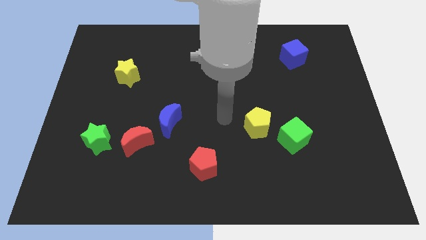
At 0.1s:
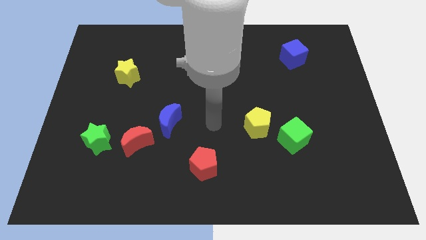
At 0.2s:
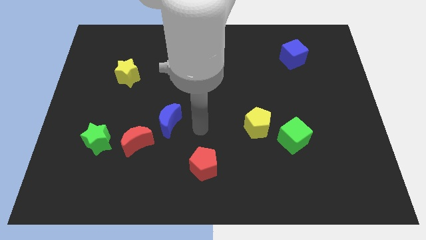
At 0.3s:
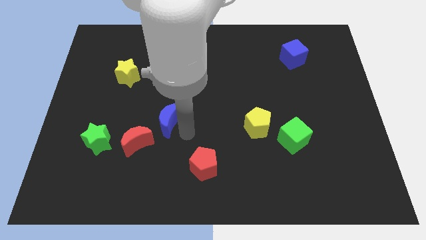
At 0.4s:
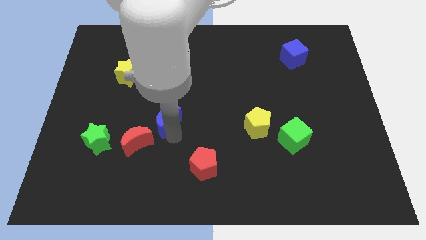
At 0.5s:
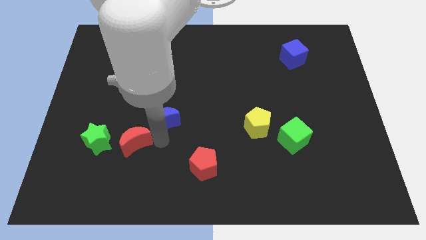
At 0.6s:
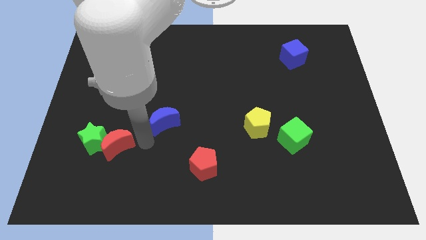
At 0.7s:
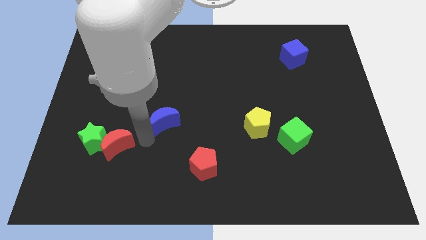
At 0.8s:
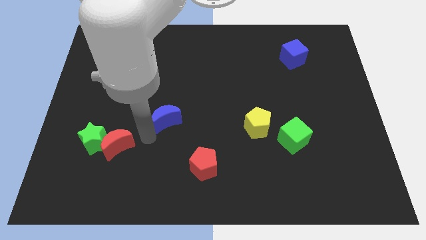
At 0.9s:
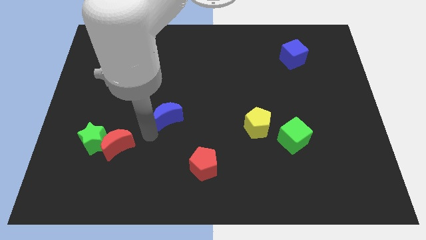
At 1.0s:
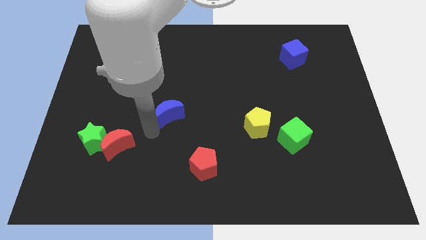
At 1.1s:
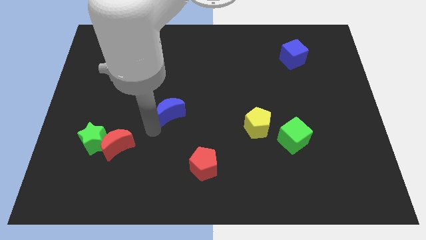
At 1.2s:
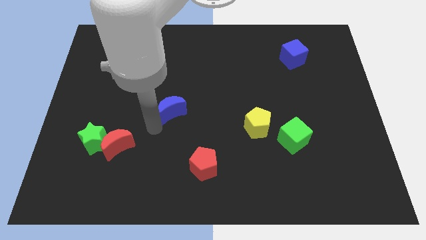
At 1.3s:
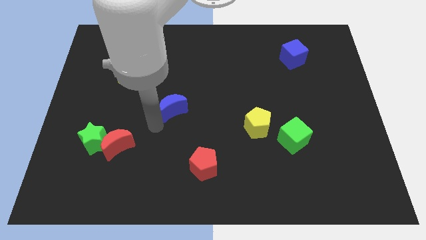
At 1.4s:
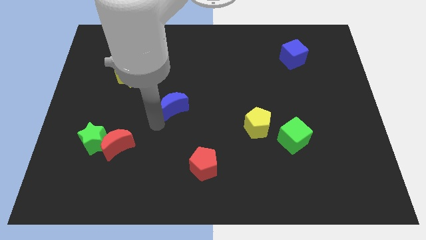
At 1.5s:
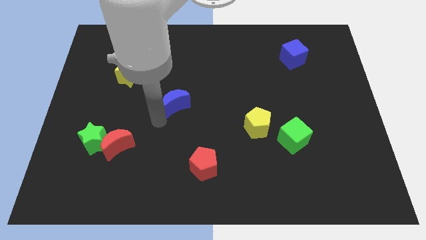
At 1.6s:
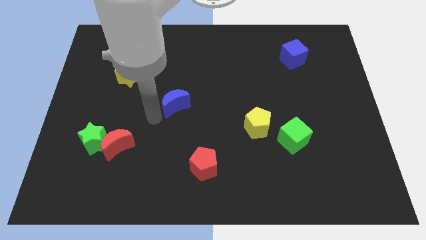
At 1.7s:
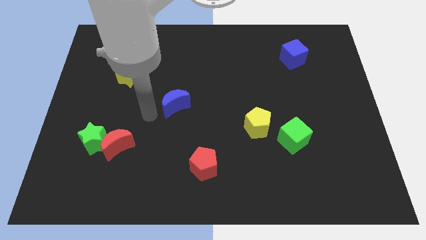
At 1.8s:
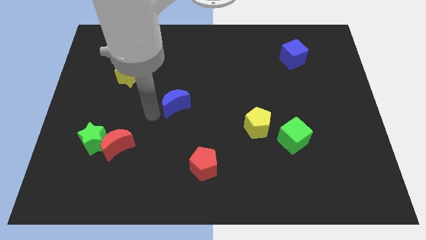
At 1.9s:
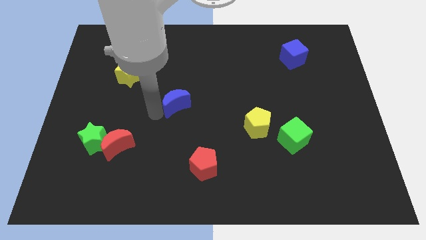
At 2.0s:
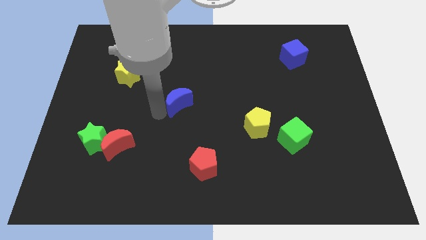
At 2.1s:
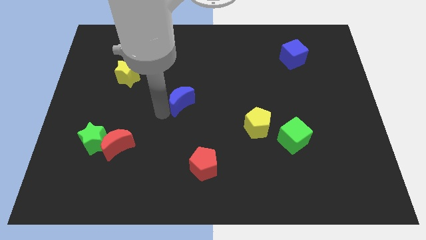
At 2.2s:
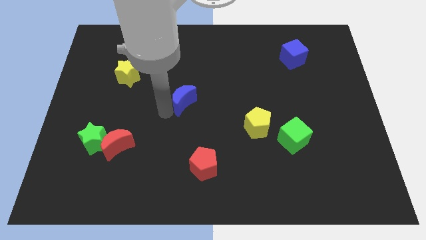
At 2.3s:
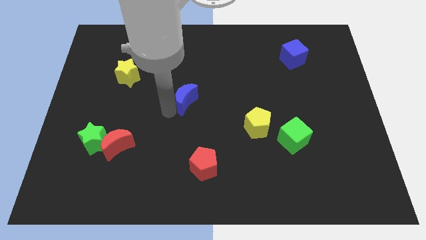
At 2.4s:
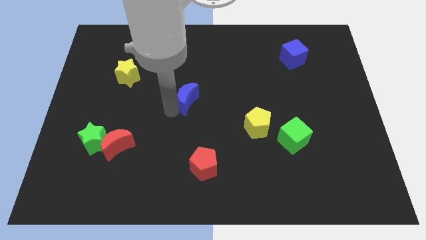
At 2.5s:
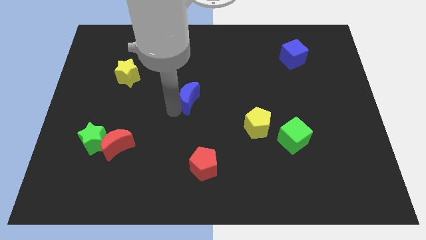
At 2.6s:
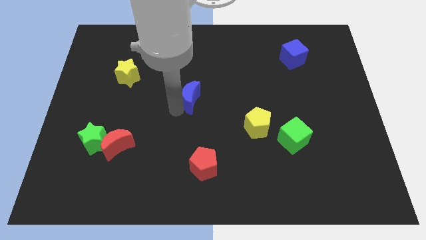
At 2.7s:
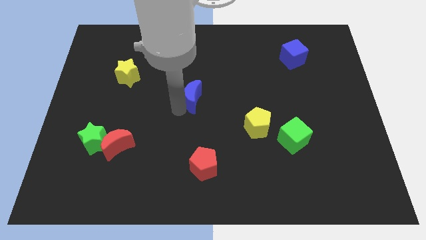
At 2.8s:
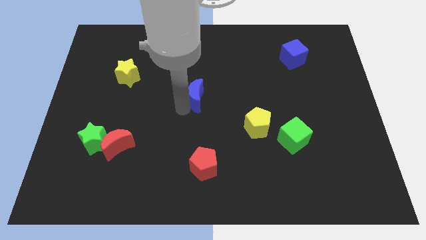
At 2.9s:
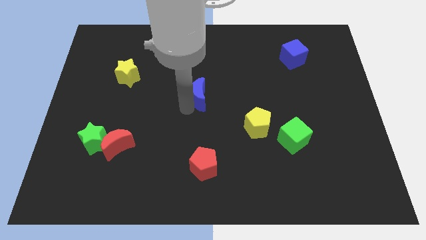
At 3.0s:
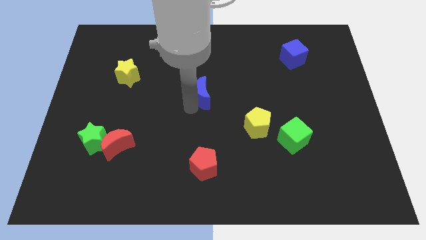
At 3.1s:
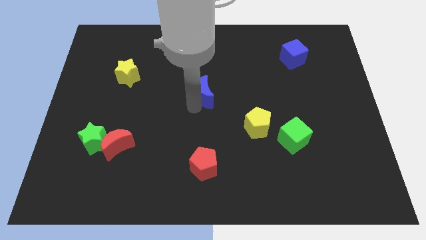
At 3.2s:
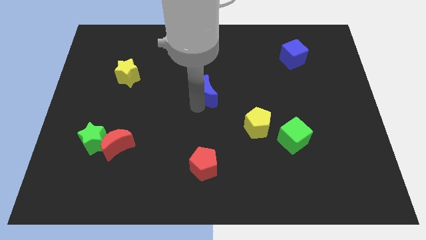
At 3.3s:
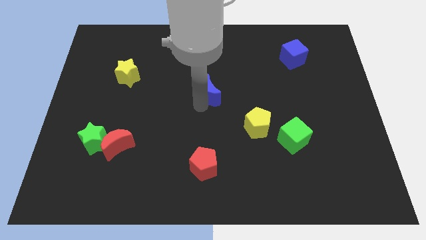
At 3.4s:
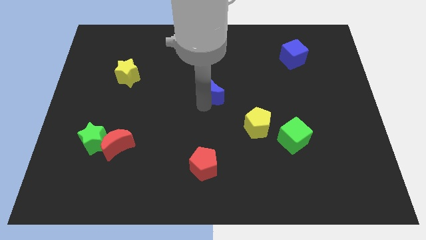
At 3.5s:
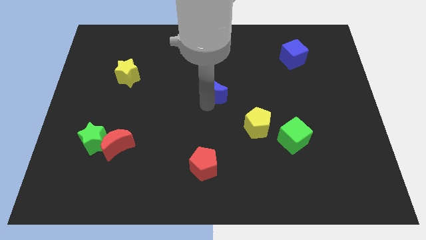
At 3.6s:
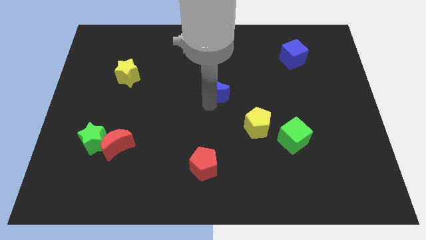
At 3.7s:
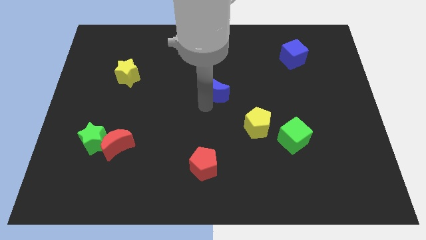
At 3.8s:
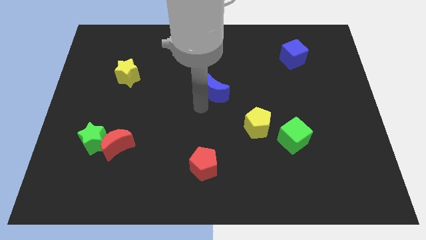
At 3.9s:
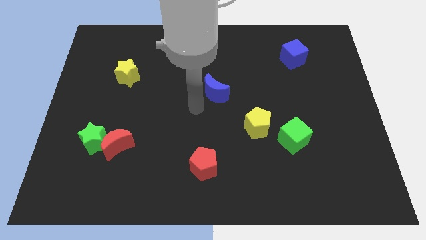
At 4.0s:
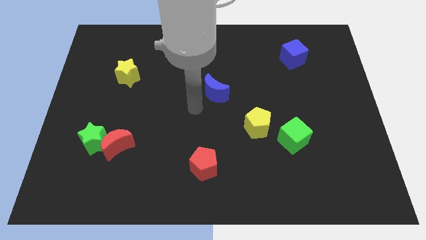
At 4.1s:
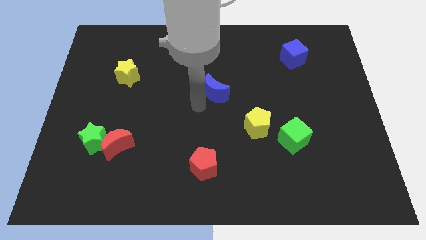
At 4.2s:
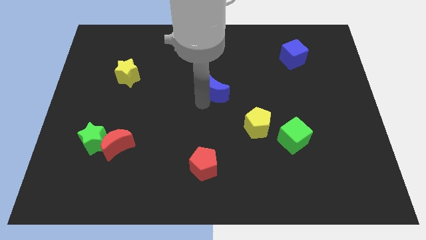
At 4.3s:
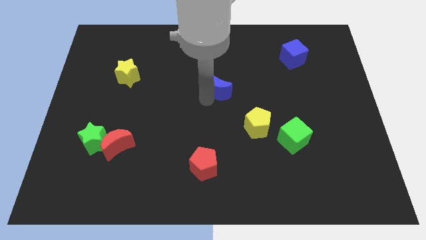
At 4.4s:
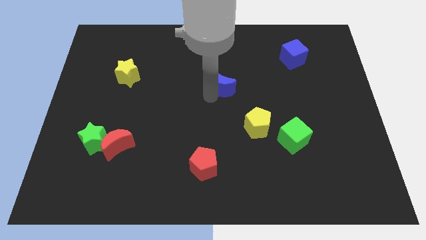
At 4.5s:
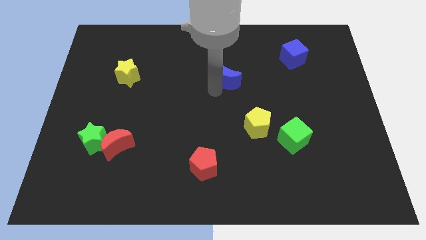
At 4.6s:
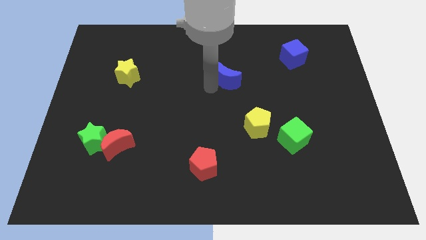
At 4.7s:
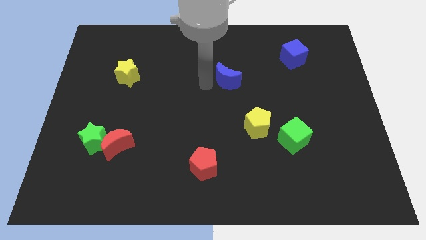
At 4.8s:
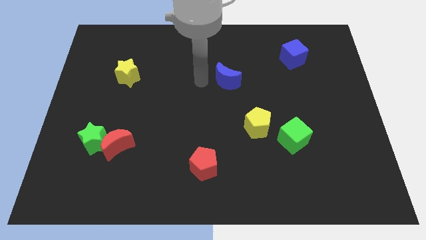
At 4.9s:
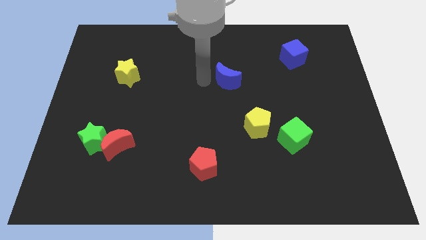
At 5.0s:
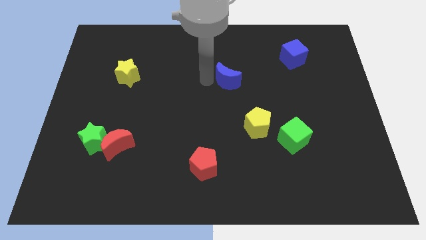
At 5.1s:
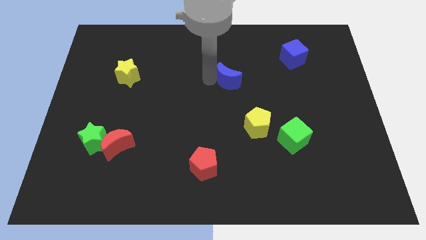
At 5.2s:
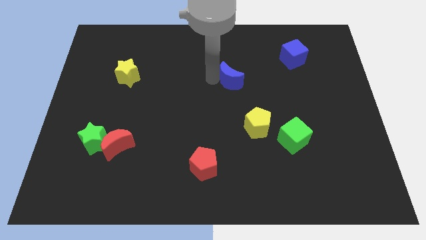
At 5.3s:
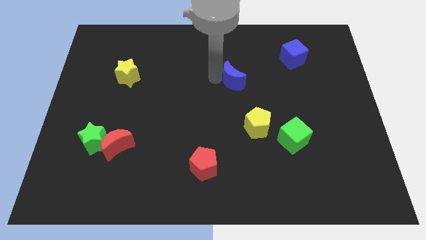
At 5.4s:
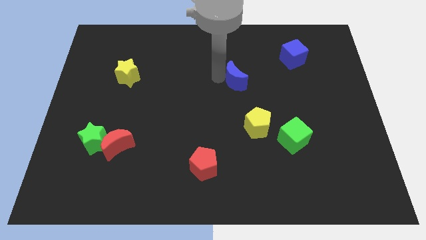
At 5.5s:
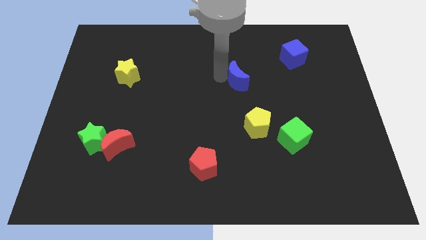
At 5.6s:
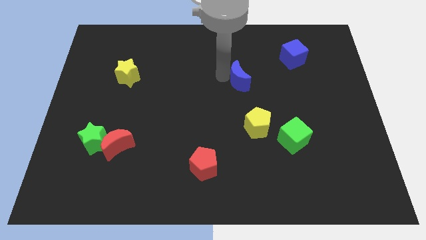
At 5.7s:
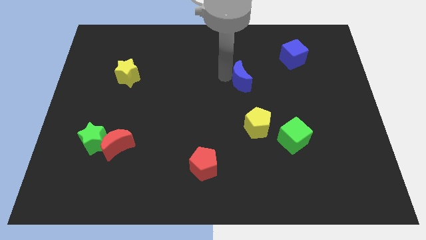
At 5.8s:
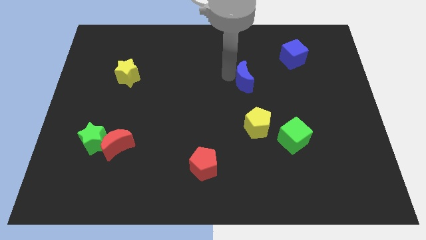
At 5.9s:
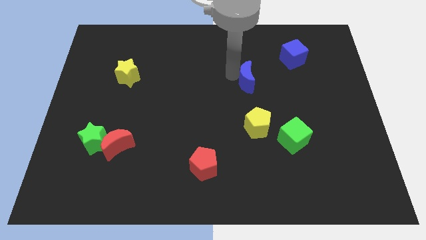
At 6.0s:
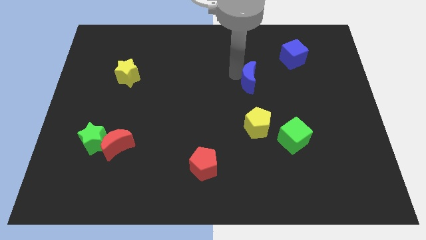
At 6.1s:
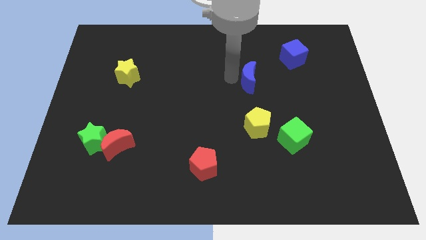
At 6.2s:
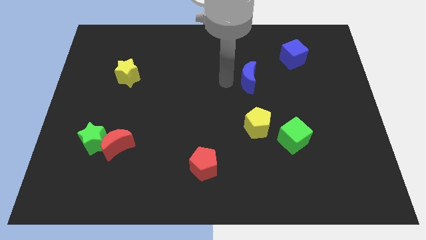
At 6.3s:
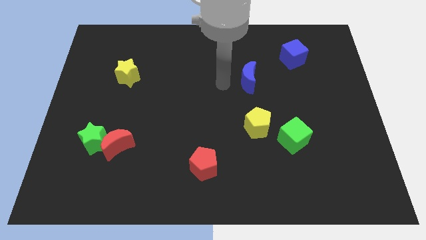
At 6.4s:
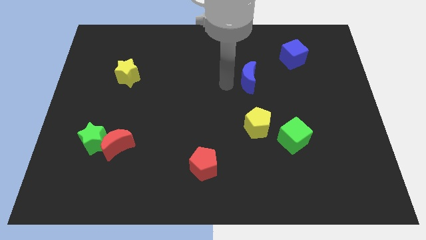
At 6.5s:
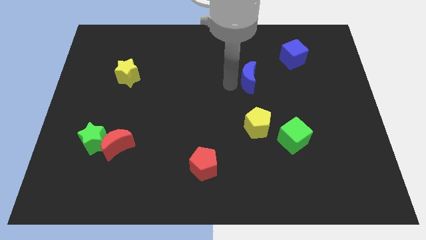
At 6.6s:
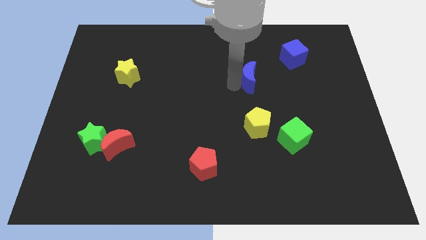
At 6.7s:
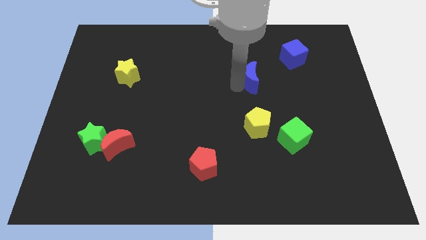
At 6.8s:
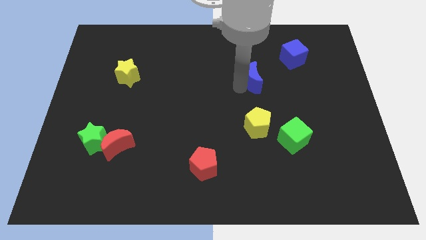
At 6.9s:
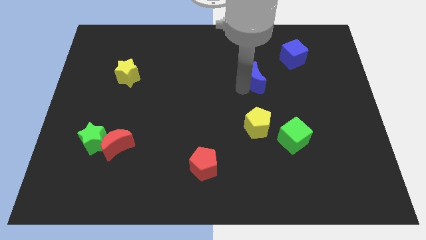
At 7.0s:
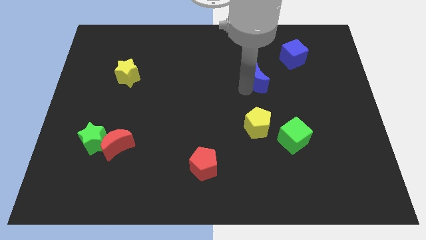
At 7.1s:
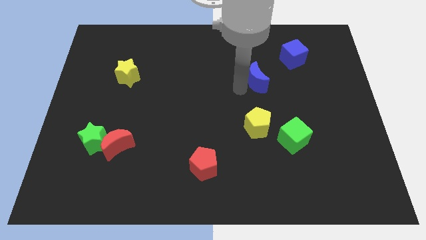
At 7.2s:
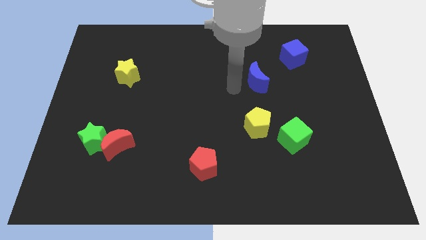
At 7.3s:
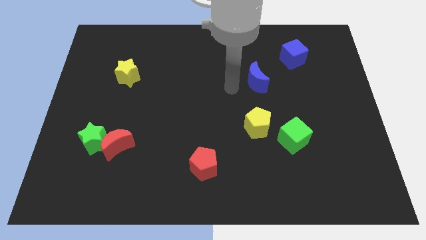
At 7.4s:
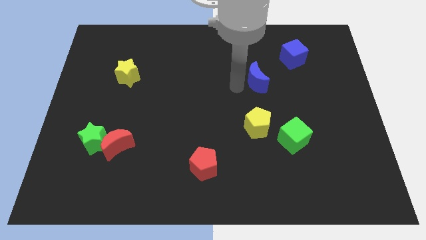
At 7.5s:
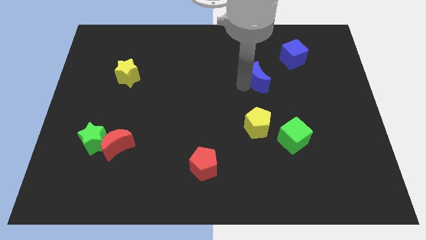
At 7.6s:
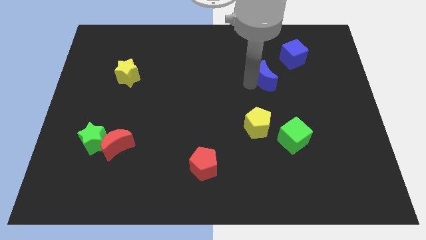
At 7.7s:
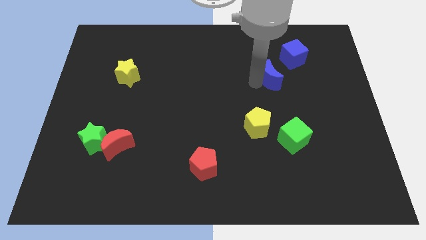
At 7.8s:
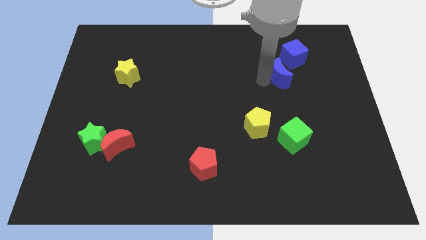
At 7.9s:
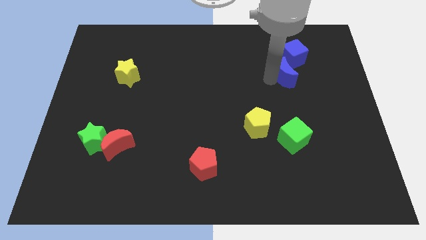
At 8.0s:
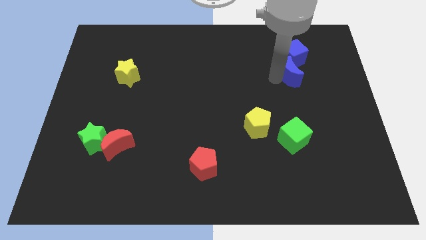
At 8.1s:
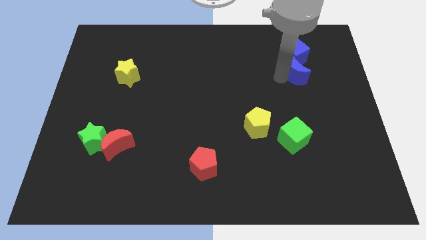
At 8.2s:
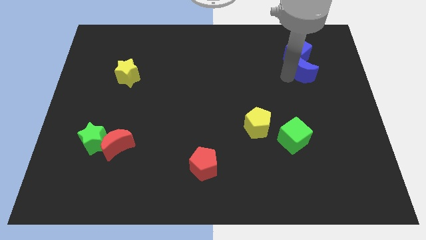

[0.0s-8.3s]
push the blue moon to the bottom right of the blue cube
